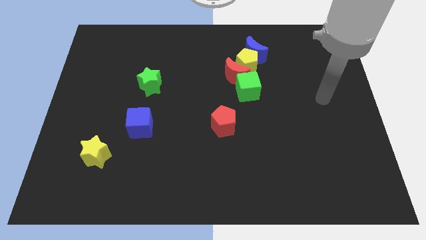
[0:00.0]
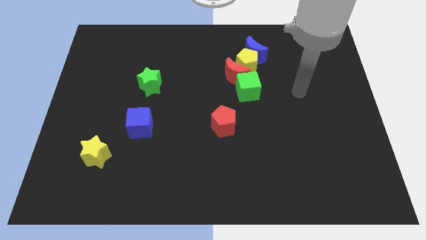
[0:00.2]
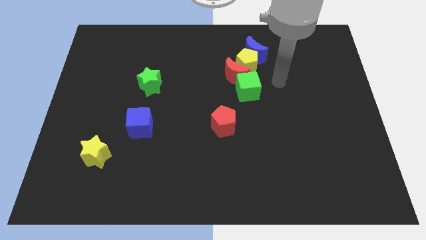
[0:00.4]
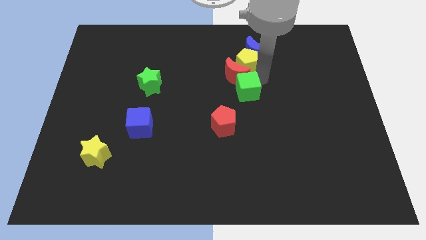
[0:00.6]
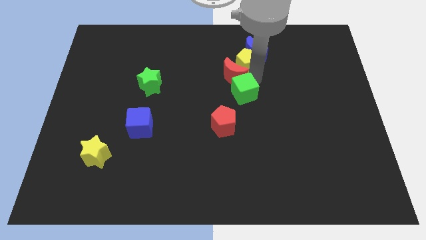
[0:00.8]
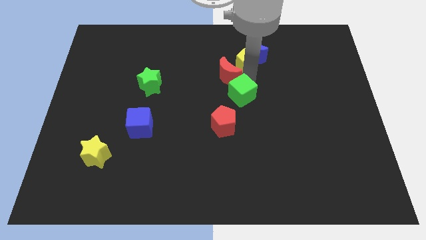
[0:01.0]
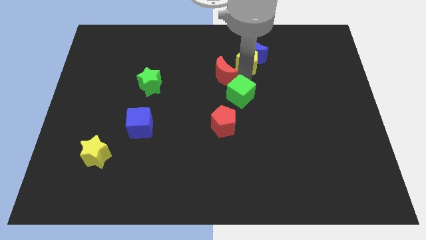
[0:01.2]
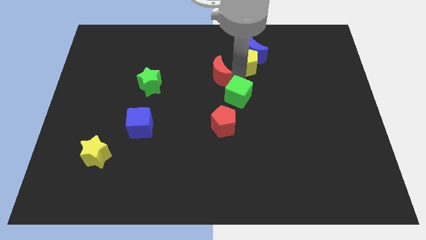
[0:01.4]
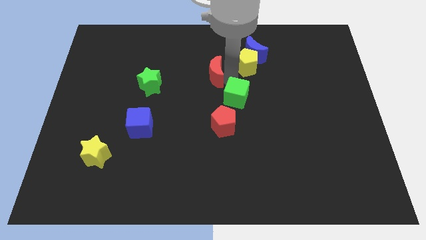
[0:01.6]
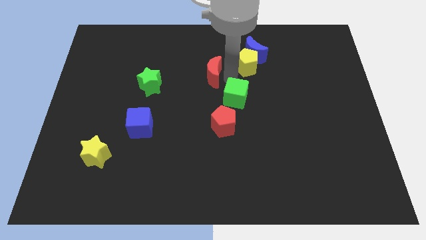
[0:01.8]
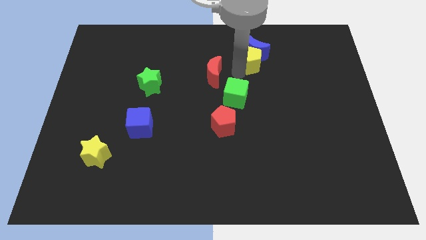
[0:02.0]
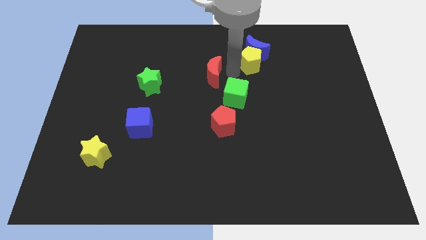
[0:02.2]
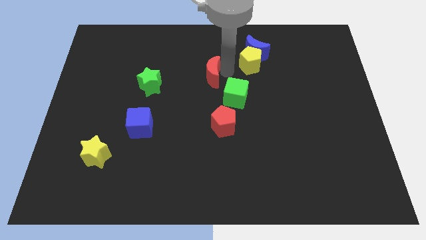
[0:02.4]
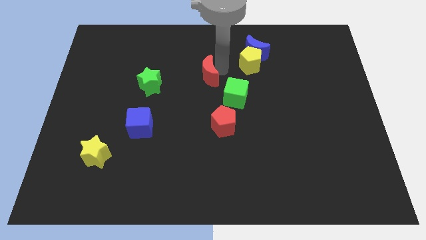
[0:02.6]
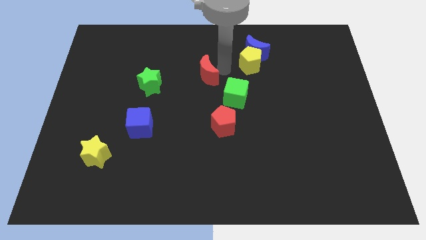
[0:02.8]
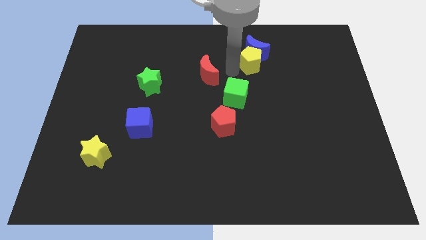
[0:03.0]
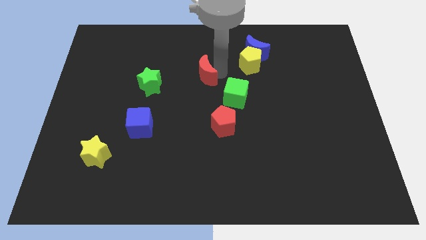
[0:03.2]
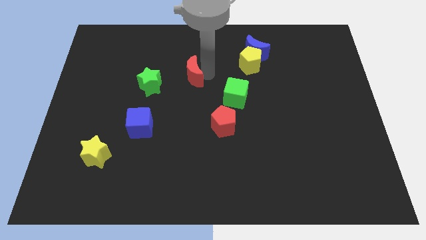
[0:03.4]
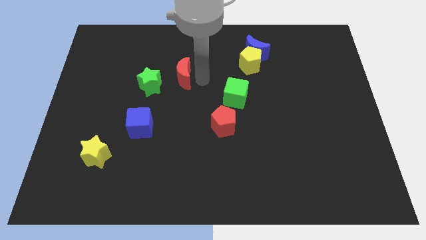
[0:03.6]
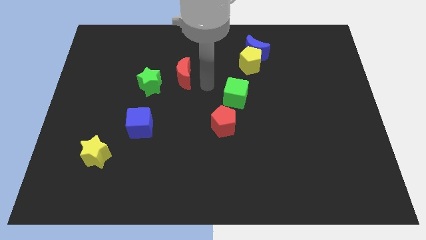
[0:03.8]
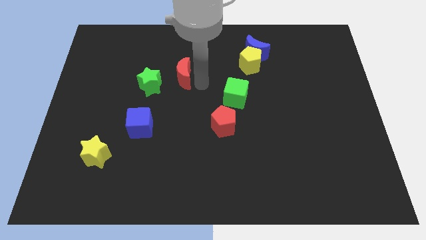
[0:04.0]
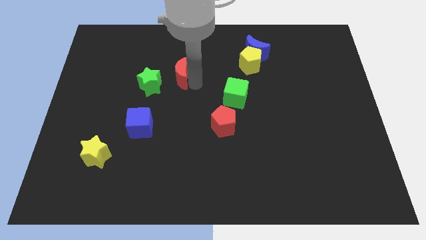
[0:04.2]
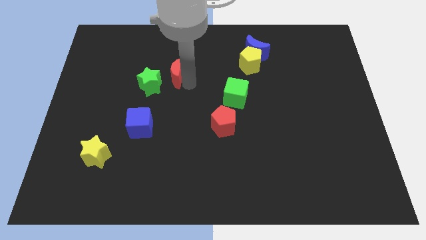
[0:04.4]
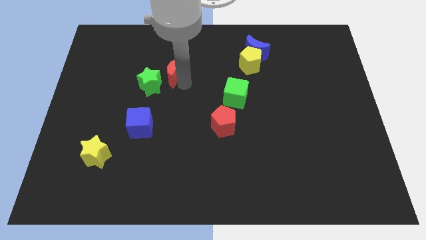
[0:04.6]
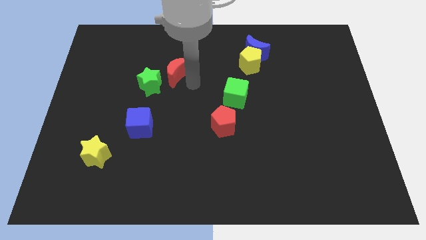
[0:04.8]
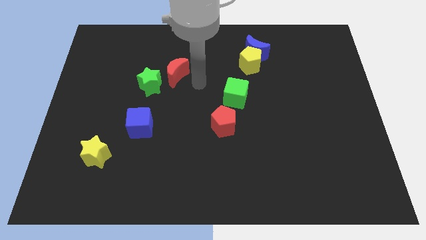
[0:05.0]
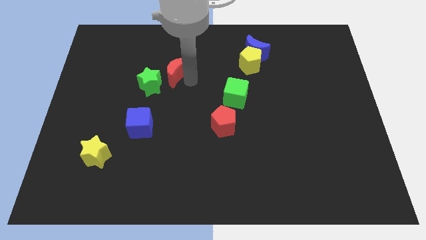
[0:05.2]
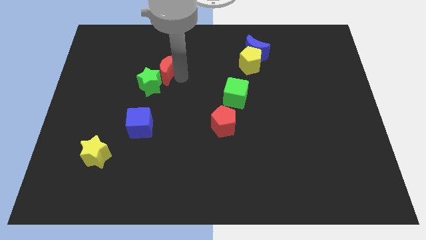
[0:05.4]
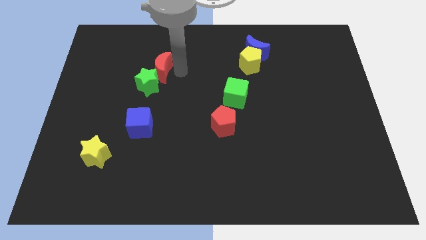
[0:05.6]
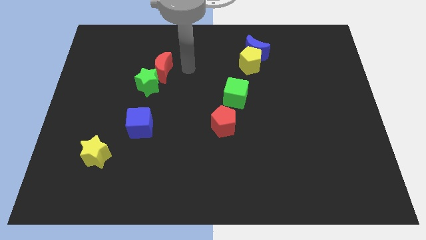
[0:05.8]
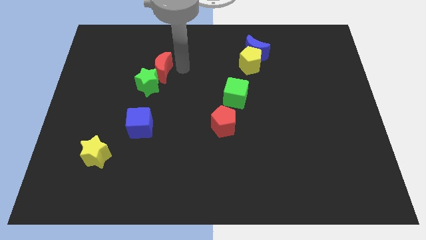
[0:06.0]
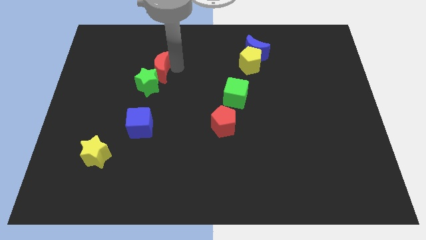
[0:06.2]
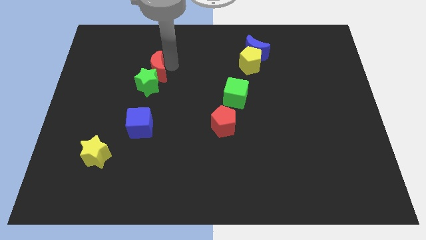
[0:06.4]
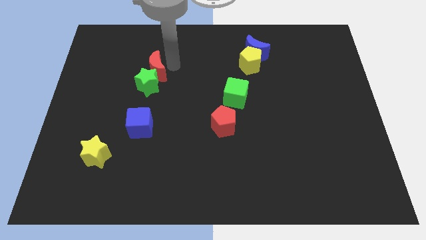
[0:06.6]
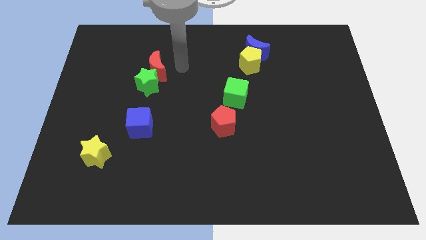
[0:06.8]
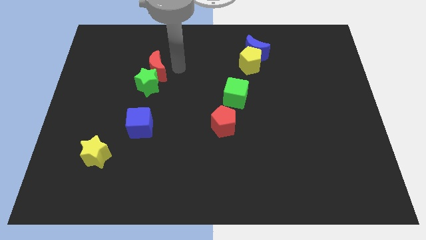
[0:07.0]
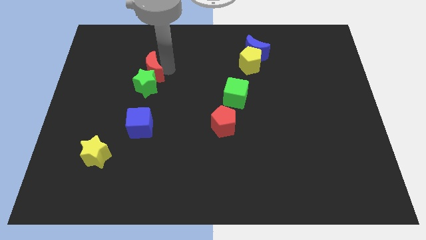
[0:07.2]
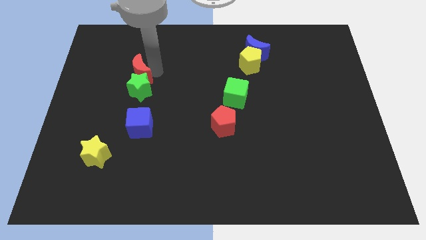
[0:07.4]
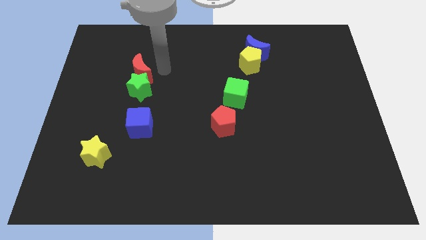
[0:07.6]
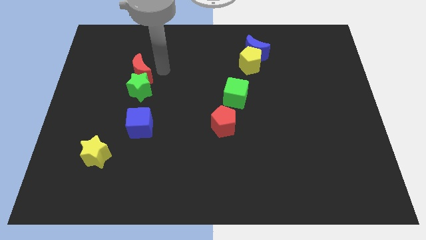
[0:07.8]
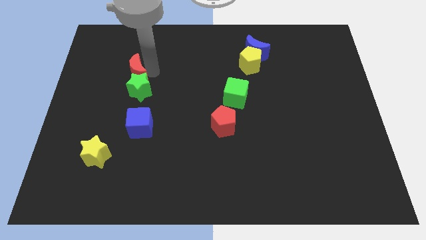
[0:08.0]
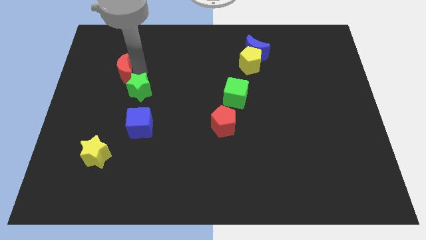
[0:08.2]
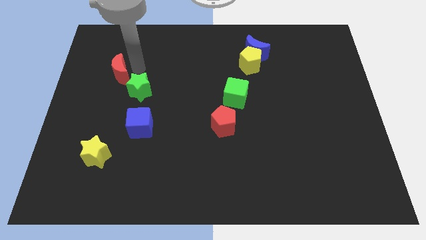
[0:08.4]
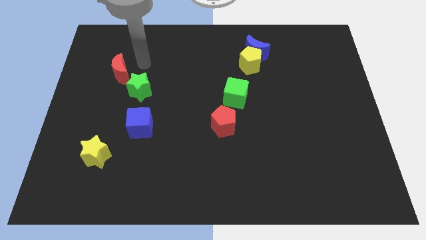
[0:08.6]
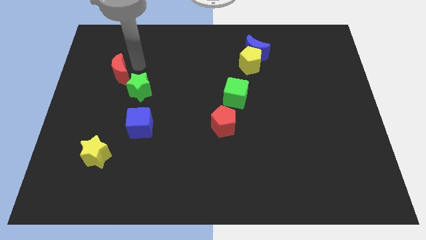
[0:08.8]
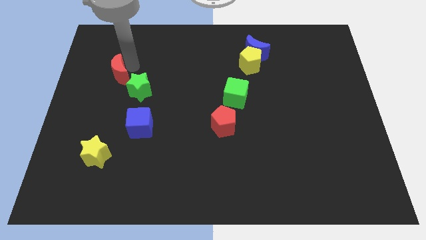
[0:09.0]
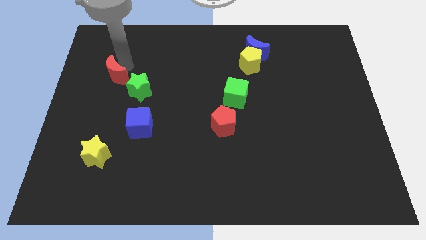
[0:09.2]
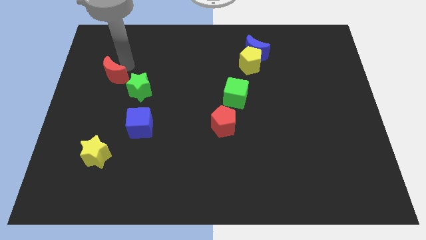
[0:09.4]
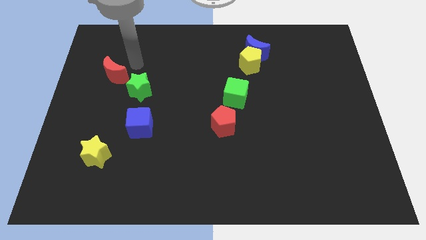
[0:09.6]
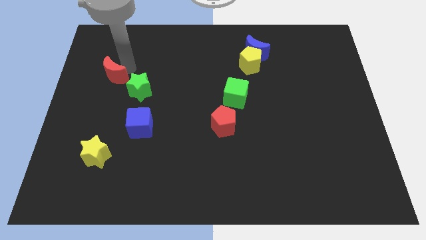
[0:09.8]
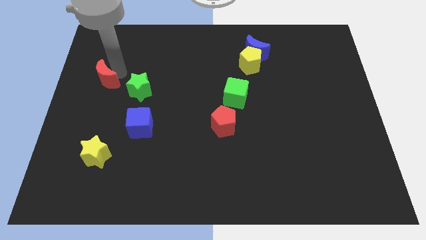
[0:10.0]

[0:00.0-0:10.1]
move the red moon to the left side of the board

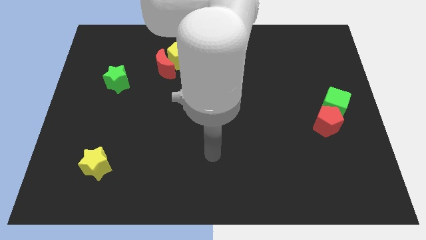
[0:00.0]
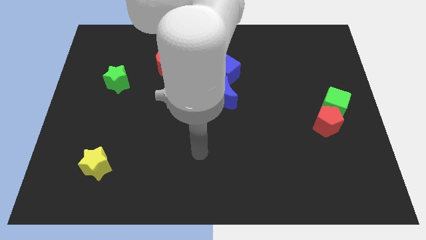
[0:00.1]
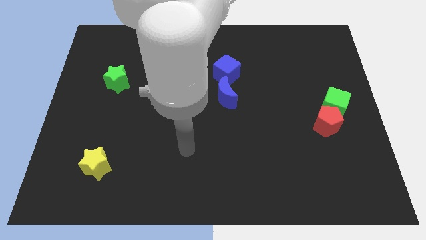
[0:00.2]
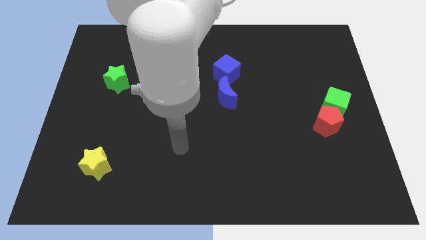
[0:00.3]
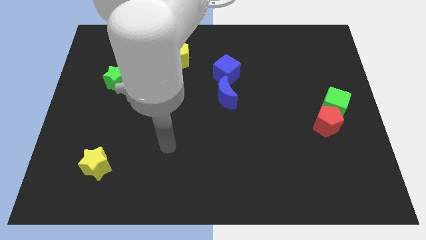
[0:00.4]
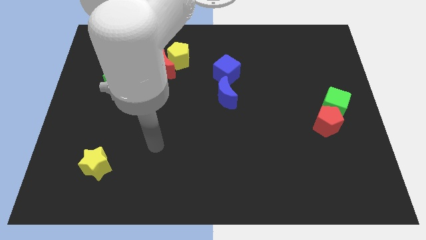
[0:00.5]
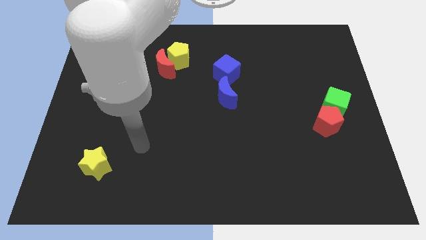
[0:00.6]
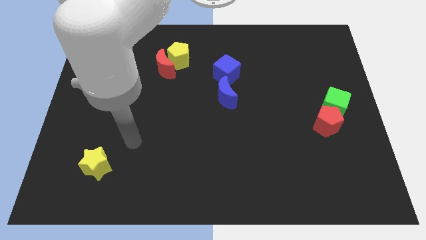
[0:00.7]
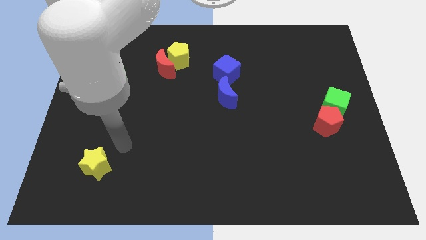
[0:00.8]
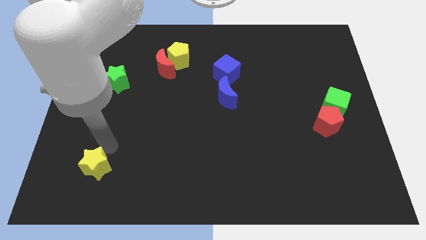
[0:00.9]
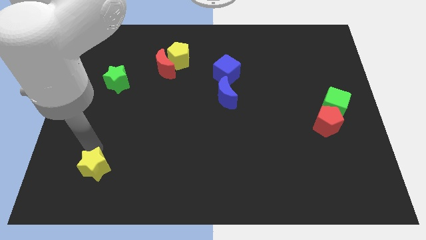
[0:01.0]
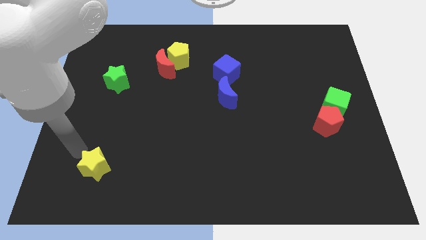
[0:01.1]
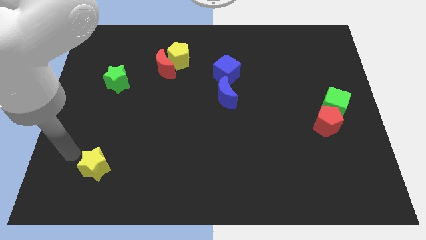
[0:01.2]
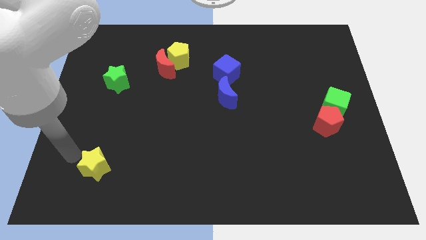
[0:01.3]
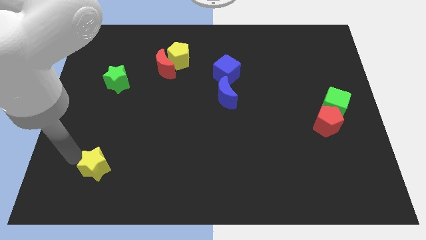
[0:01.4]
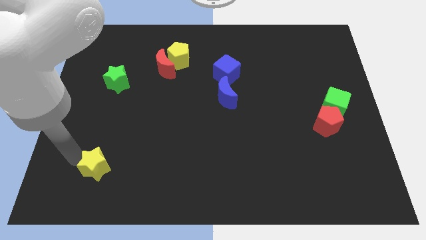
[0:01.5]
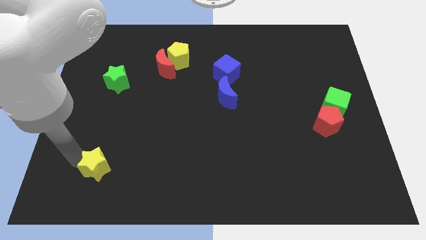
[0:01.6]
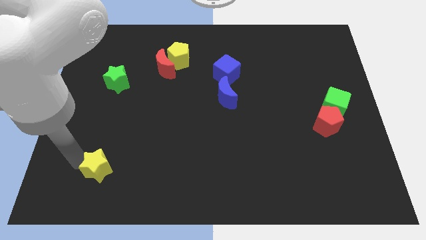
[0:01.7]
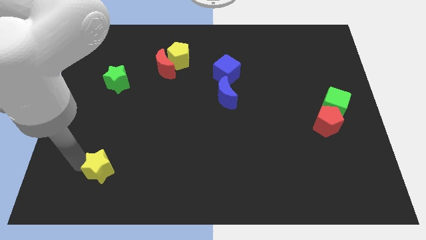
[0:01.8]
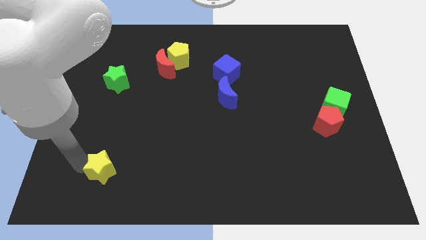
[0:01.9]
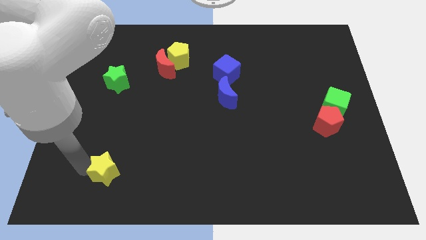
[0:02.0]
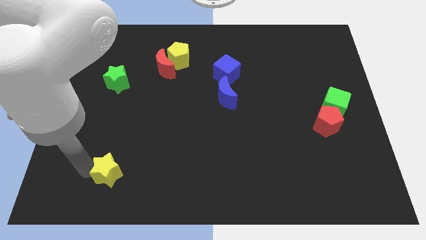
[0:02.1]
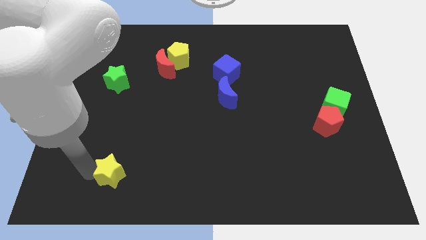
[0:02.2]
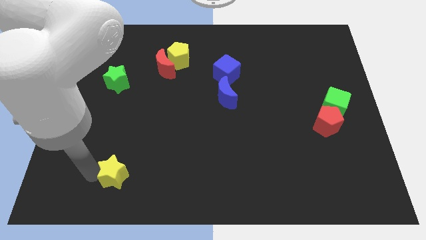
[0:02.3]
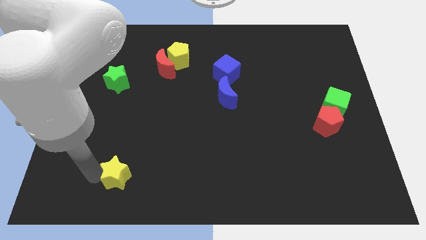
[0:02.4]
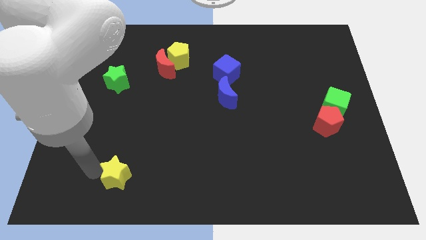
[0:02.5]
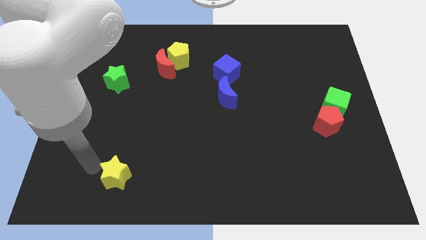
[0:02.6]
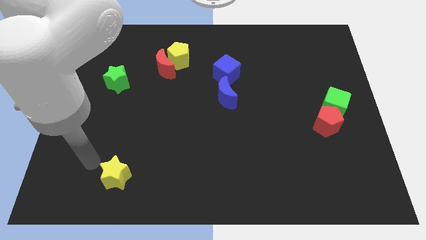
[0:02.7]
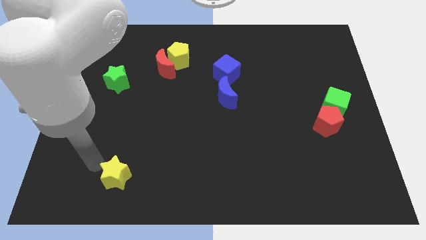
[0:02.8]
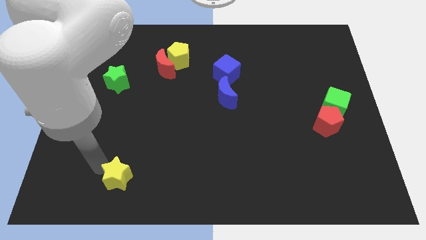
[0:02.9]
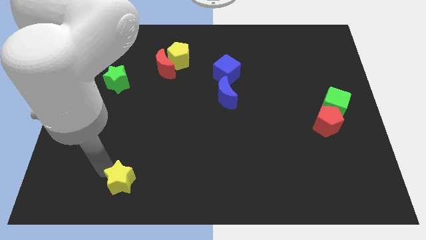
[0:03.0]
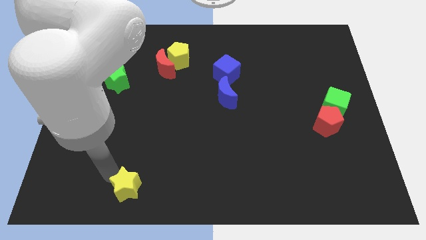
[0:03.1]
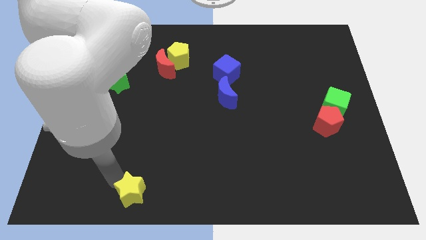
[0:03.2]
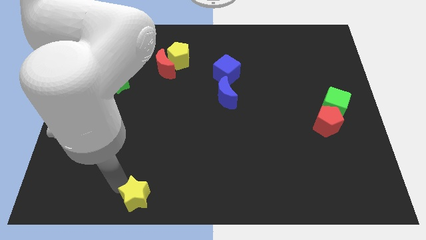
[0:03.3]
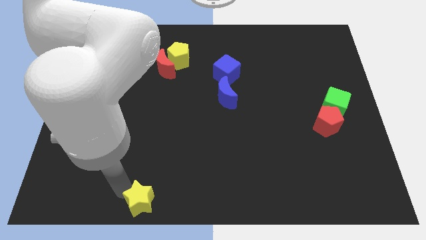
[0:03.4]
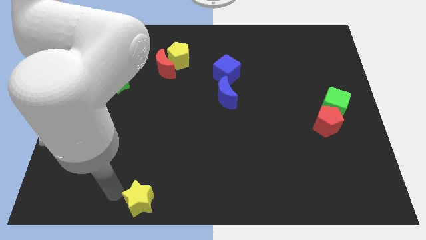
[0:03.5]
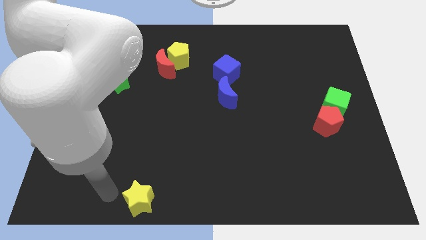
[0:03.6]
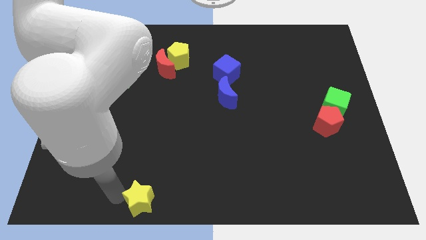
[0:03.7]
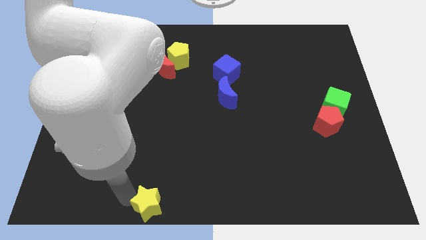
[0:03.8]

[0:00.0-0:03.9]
put the yellow star to the bottom
